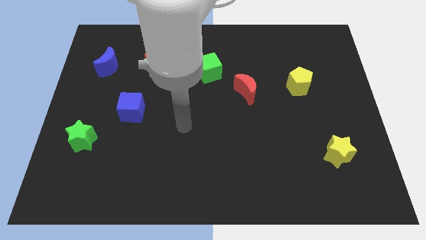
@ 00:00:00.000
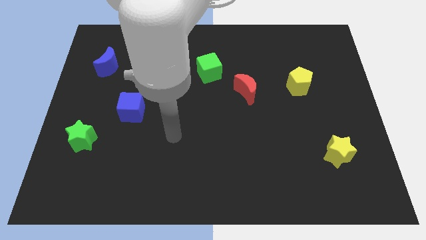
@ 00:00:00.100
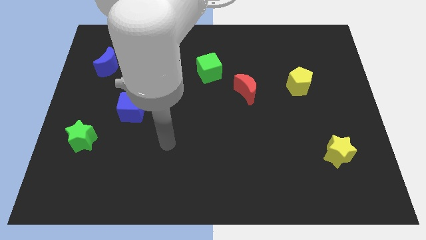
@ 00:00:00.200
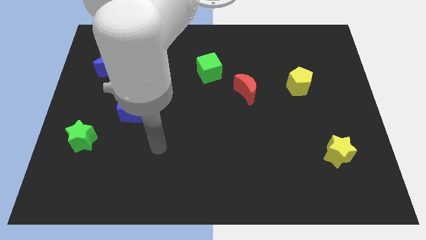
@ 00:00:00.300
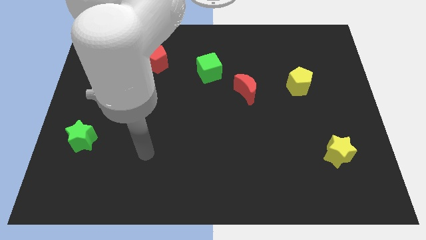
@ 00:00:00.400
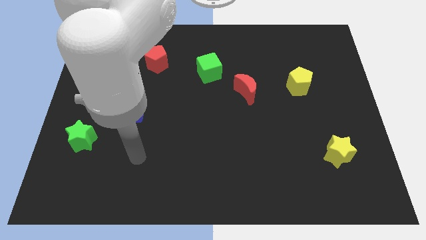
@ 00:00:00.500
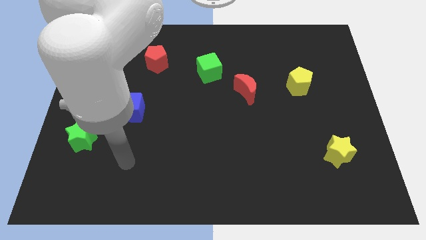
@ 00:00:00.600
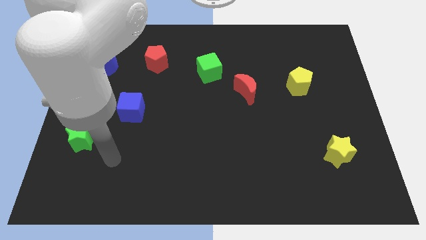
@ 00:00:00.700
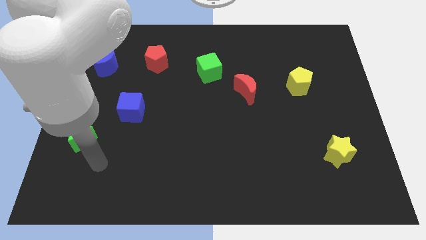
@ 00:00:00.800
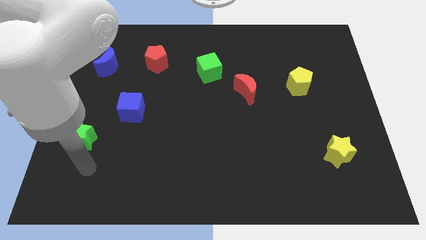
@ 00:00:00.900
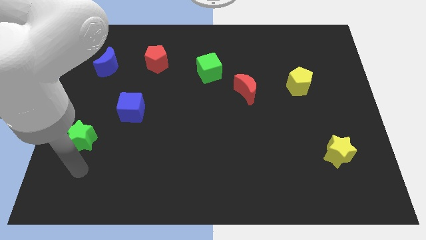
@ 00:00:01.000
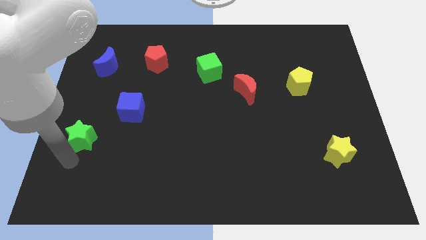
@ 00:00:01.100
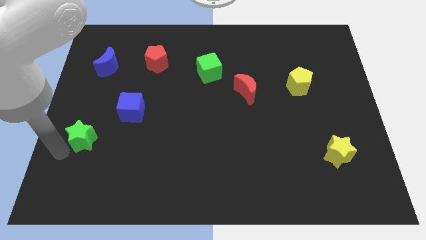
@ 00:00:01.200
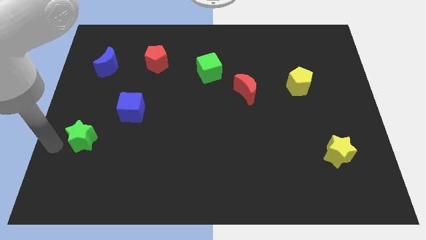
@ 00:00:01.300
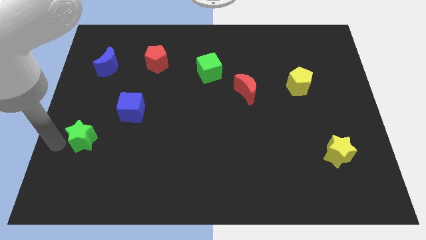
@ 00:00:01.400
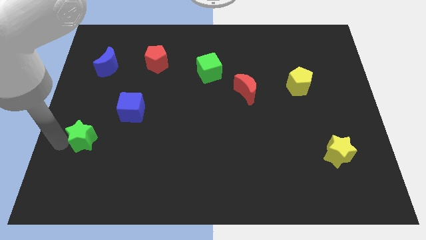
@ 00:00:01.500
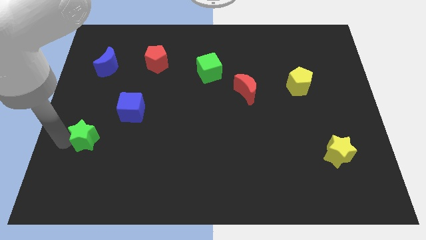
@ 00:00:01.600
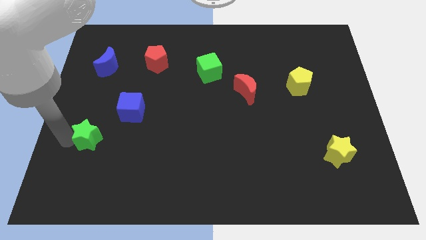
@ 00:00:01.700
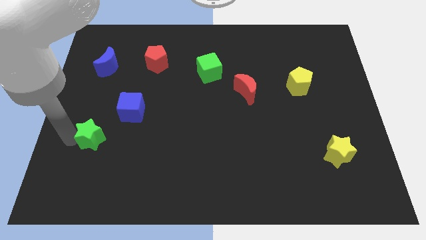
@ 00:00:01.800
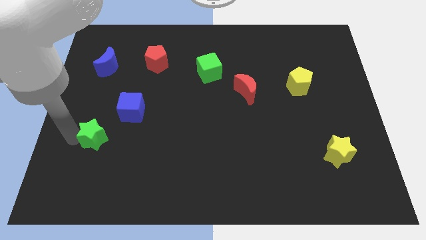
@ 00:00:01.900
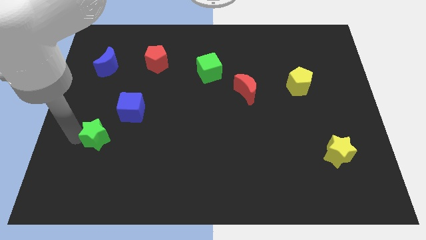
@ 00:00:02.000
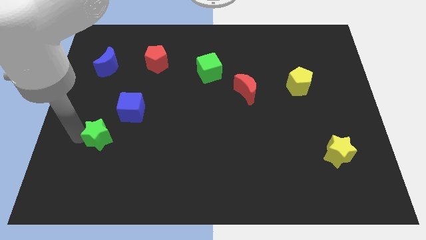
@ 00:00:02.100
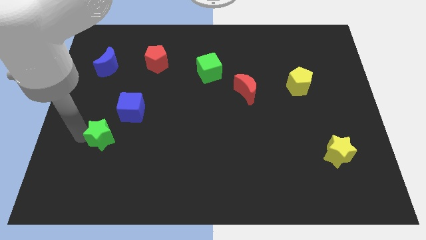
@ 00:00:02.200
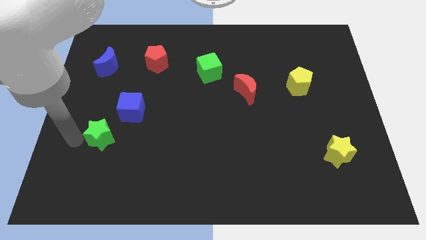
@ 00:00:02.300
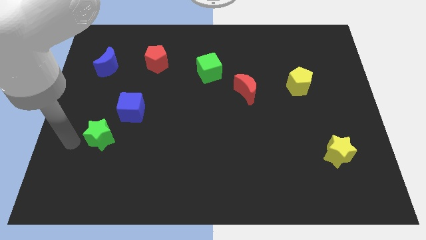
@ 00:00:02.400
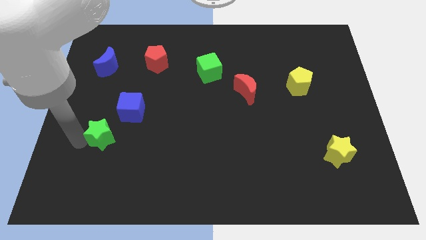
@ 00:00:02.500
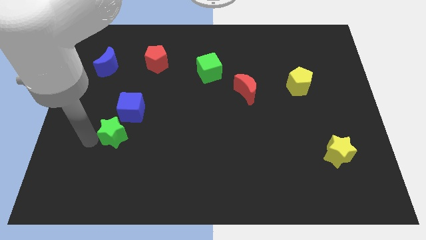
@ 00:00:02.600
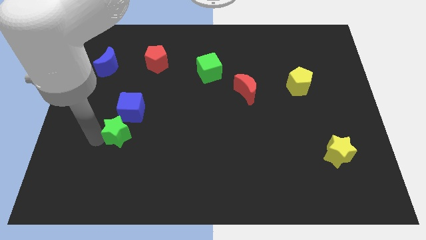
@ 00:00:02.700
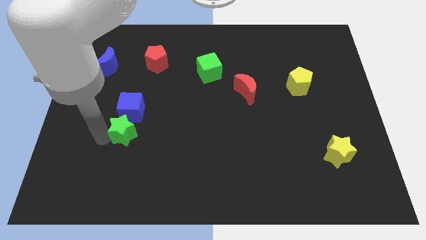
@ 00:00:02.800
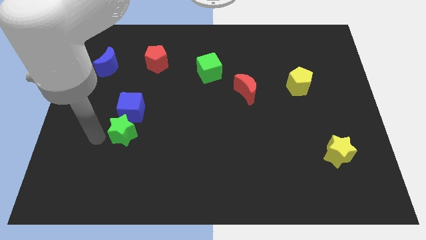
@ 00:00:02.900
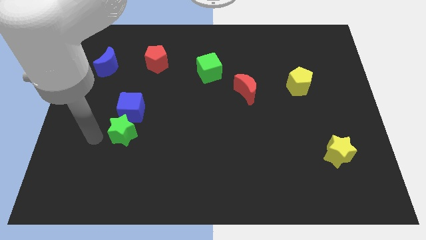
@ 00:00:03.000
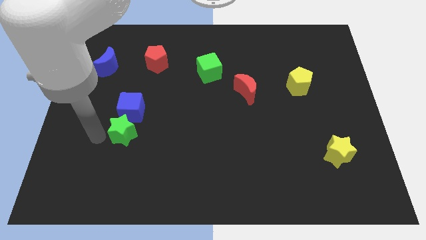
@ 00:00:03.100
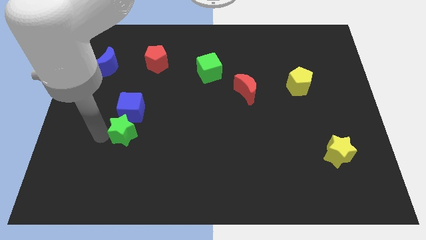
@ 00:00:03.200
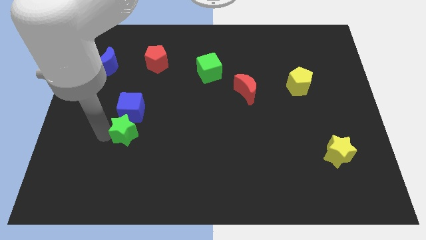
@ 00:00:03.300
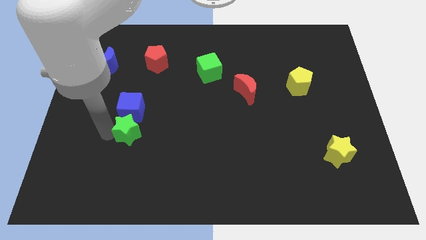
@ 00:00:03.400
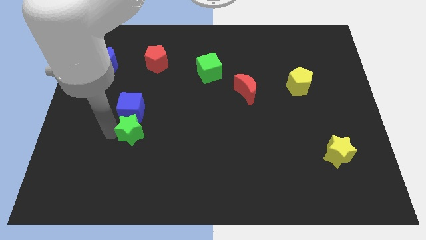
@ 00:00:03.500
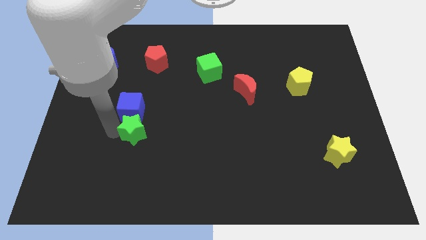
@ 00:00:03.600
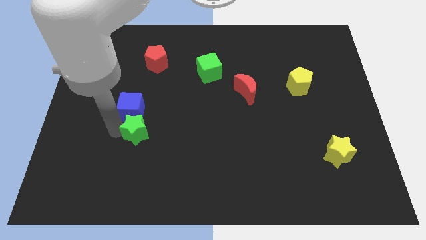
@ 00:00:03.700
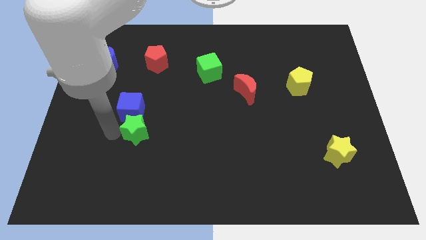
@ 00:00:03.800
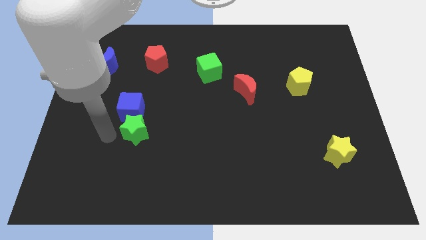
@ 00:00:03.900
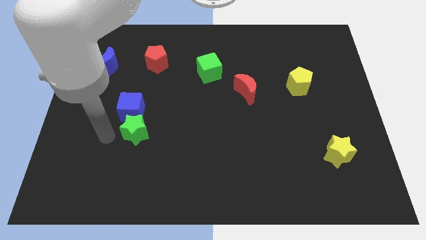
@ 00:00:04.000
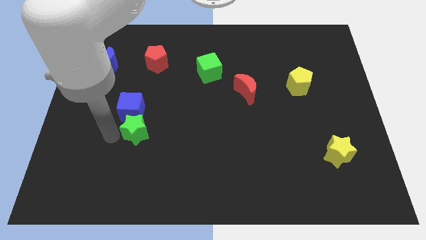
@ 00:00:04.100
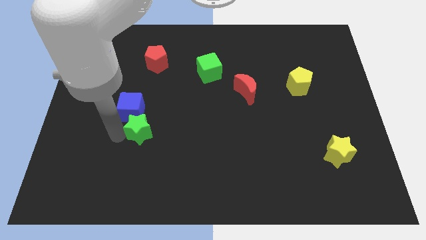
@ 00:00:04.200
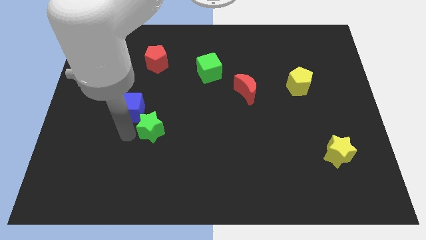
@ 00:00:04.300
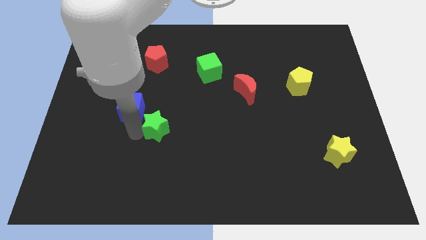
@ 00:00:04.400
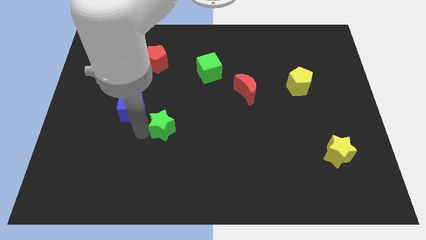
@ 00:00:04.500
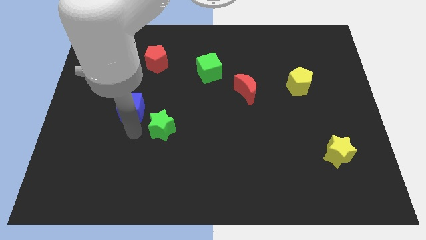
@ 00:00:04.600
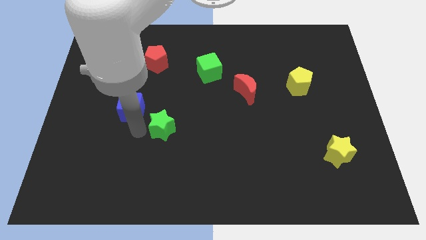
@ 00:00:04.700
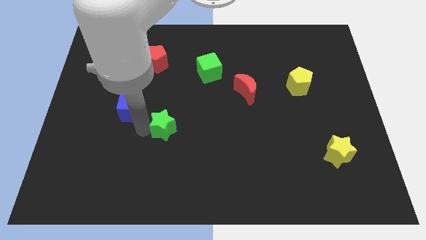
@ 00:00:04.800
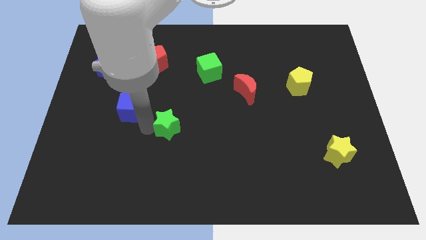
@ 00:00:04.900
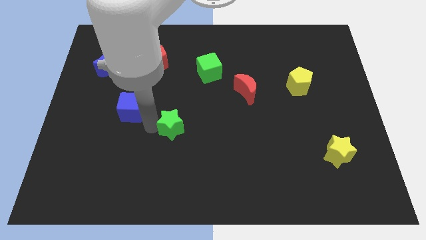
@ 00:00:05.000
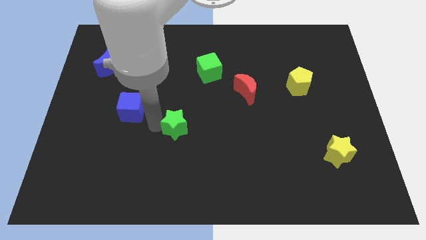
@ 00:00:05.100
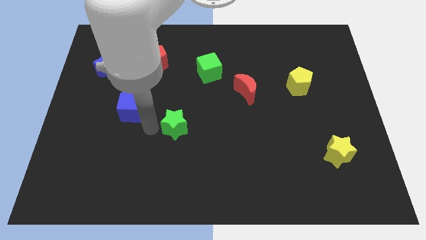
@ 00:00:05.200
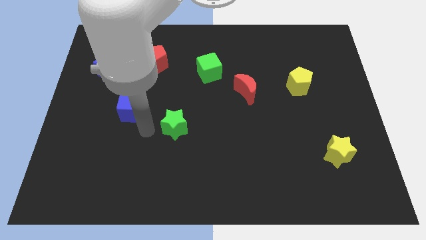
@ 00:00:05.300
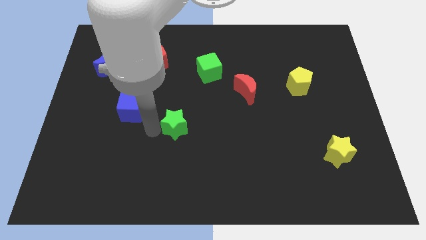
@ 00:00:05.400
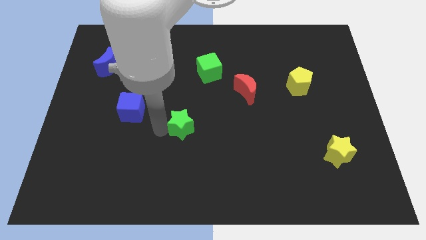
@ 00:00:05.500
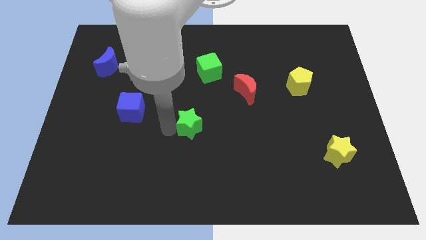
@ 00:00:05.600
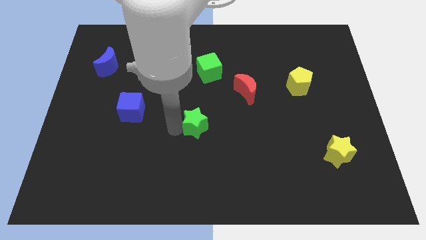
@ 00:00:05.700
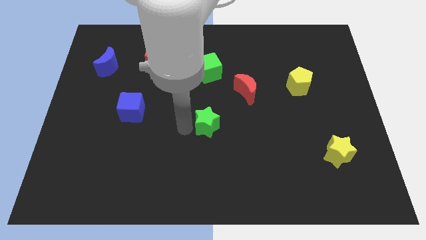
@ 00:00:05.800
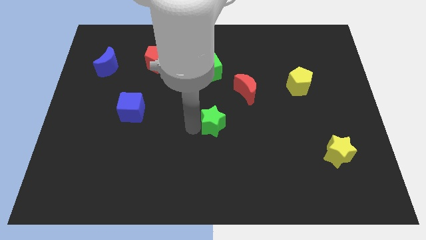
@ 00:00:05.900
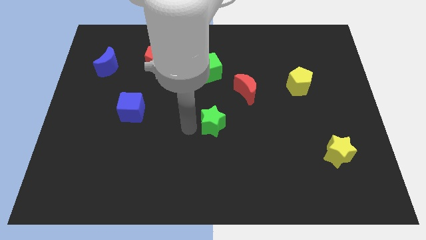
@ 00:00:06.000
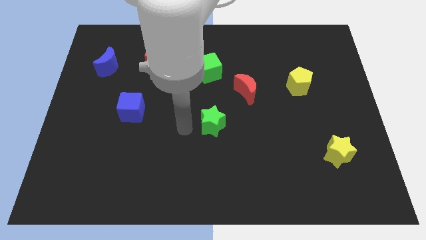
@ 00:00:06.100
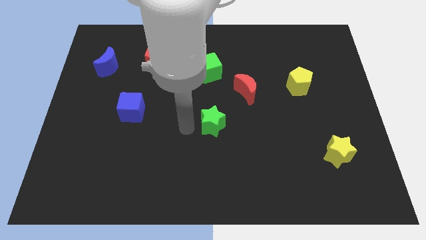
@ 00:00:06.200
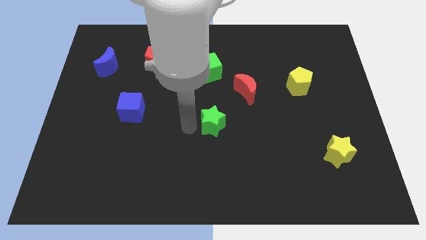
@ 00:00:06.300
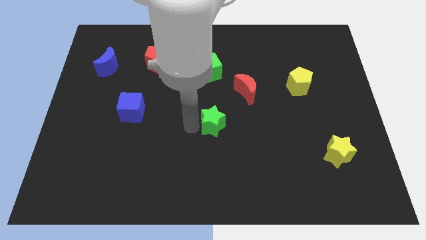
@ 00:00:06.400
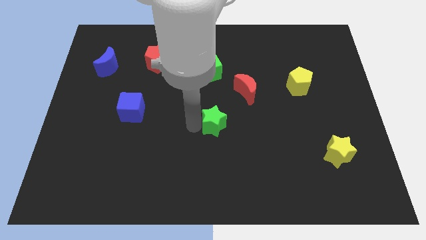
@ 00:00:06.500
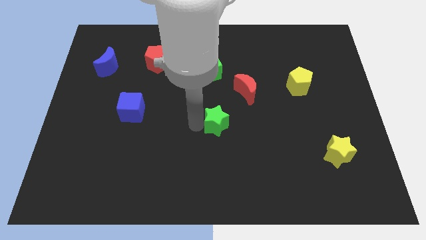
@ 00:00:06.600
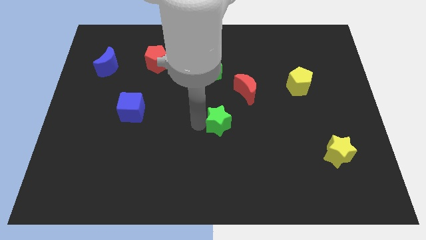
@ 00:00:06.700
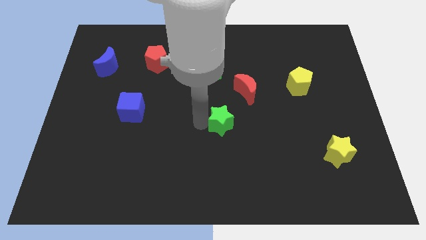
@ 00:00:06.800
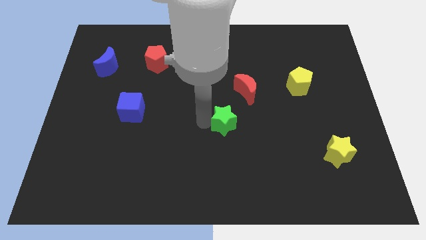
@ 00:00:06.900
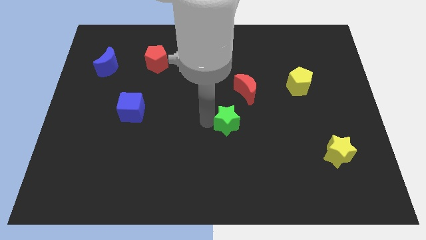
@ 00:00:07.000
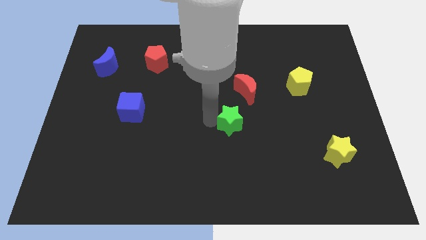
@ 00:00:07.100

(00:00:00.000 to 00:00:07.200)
put the green star below the red moon
